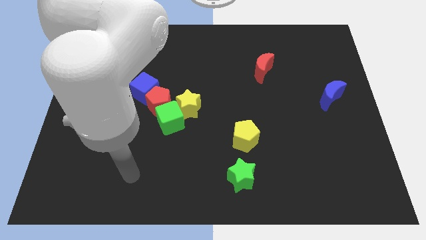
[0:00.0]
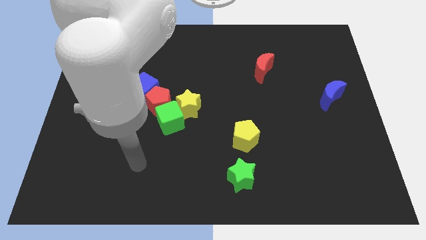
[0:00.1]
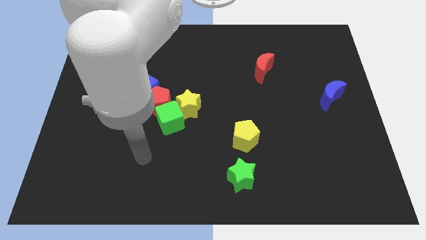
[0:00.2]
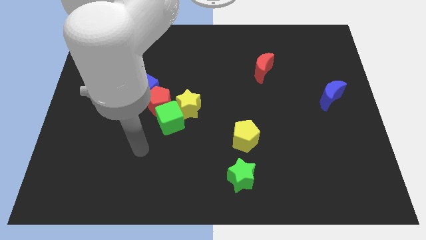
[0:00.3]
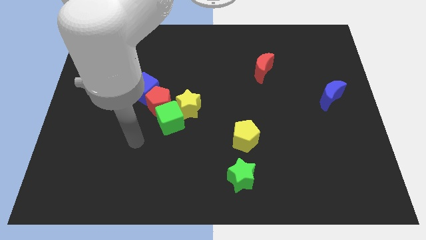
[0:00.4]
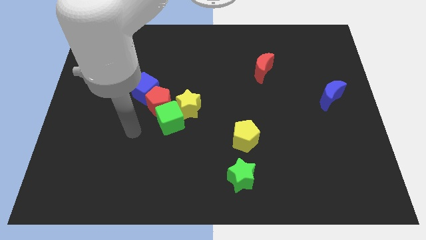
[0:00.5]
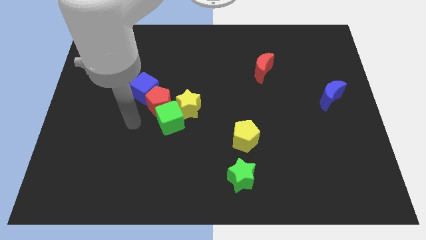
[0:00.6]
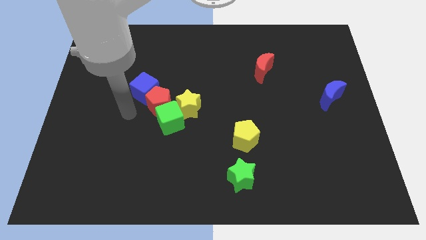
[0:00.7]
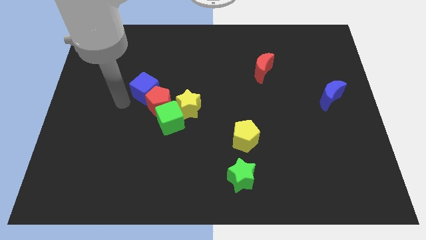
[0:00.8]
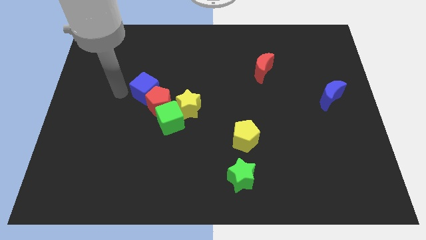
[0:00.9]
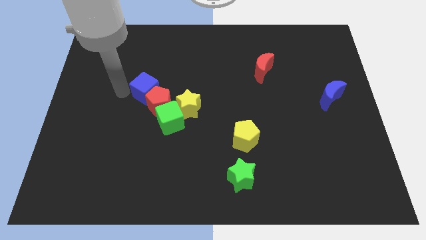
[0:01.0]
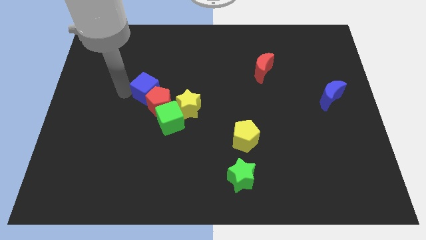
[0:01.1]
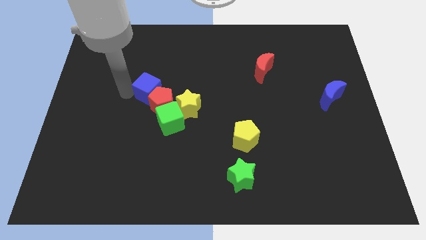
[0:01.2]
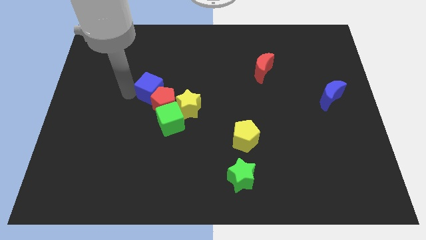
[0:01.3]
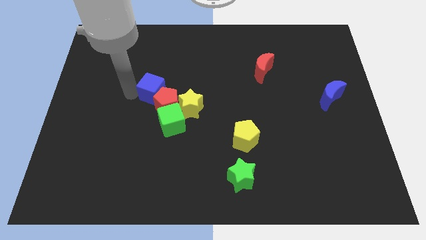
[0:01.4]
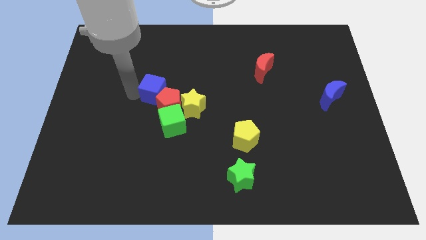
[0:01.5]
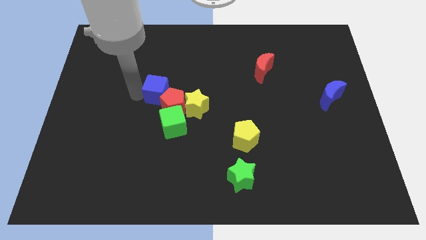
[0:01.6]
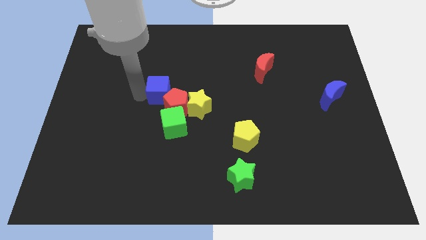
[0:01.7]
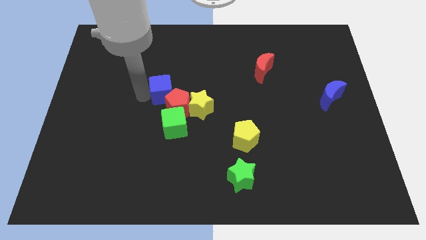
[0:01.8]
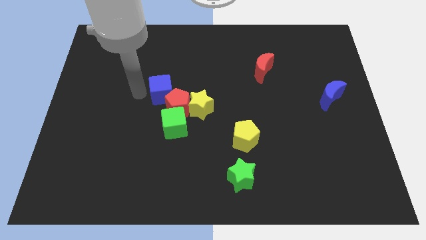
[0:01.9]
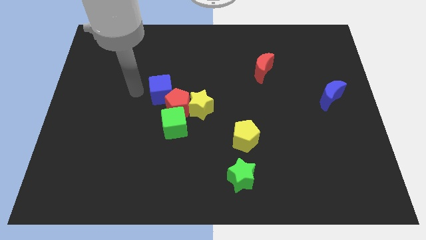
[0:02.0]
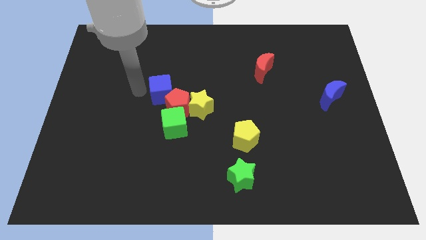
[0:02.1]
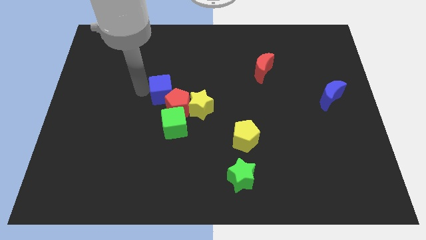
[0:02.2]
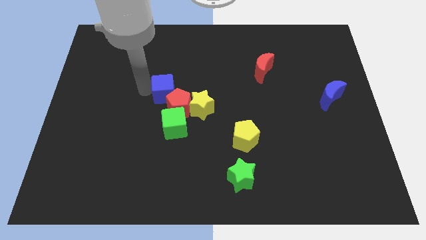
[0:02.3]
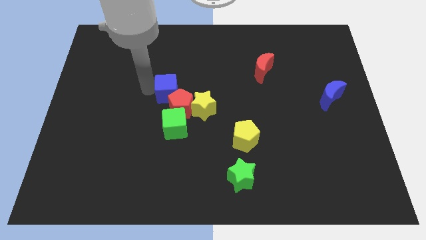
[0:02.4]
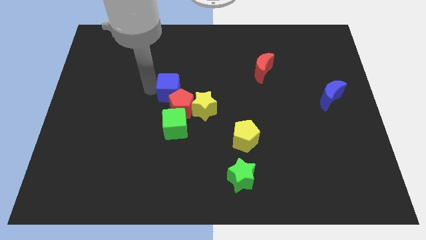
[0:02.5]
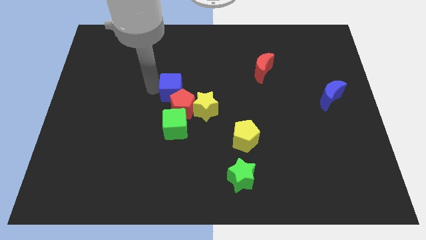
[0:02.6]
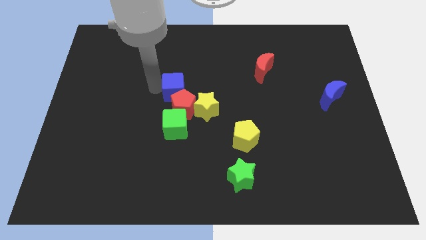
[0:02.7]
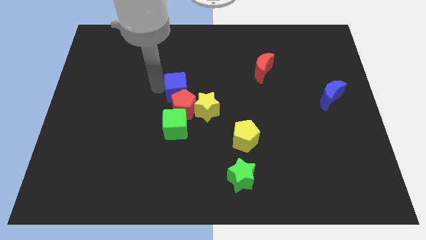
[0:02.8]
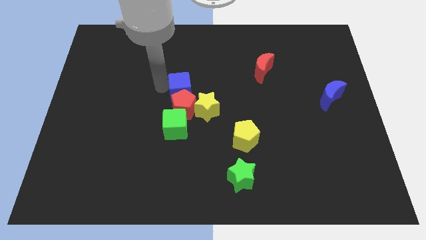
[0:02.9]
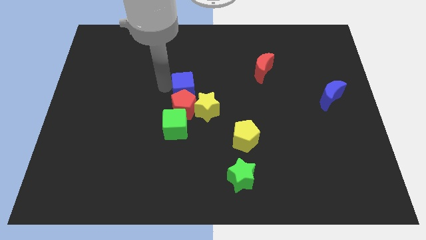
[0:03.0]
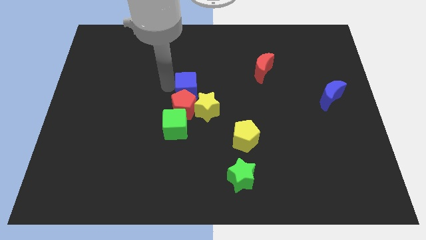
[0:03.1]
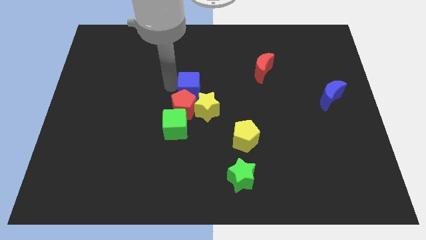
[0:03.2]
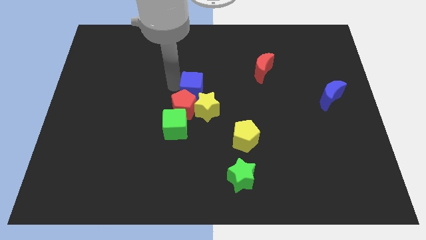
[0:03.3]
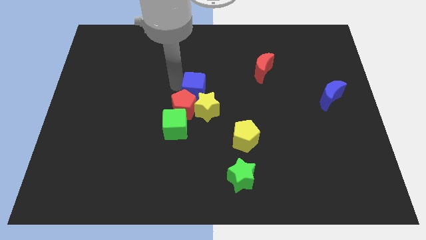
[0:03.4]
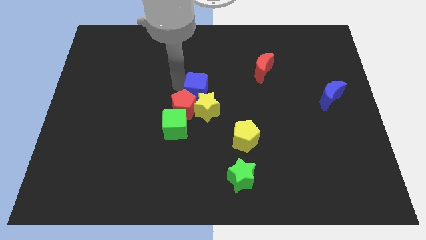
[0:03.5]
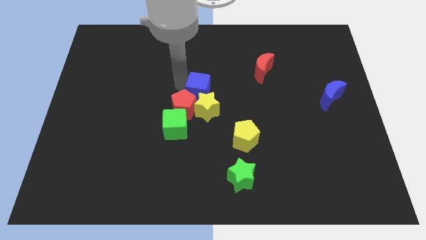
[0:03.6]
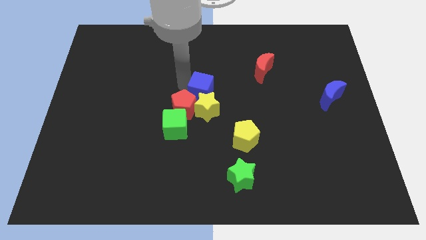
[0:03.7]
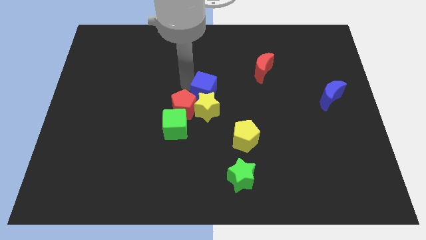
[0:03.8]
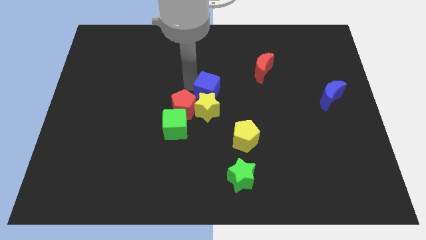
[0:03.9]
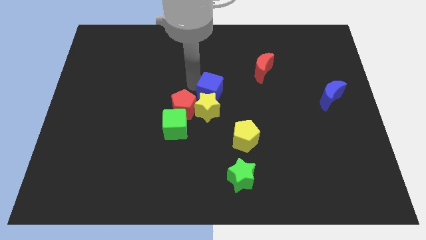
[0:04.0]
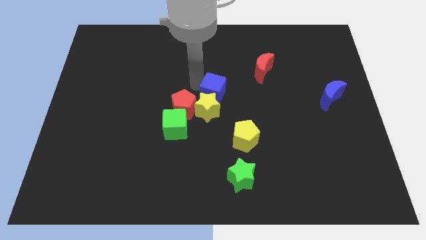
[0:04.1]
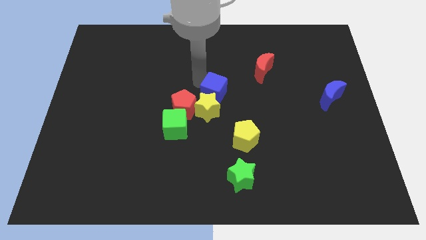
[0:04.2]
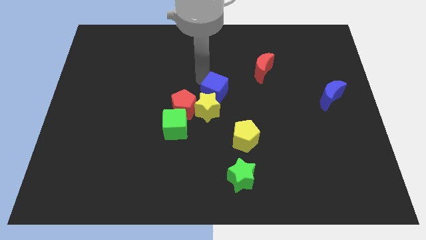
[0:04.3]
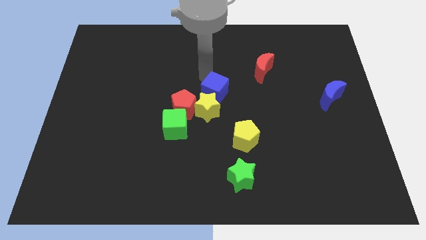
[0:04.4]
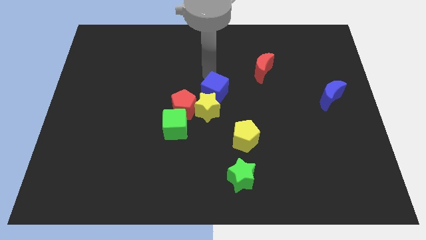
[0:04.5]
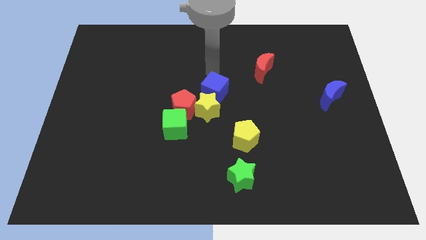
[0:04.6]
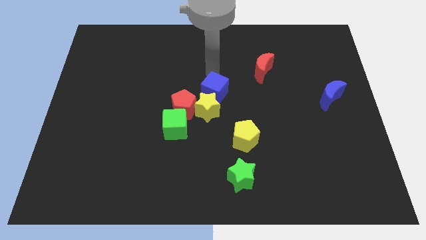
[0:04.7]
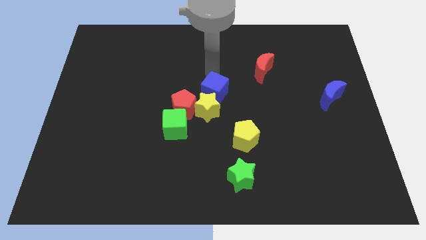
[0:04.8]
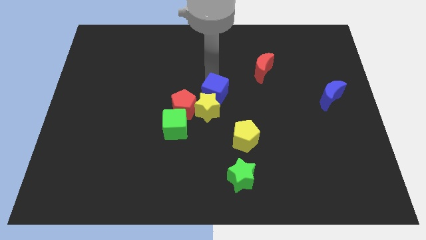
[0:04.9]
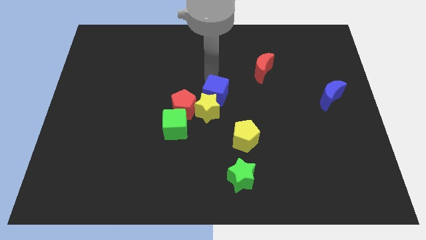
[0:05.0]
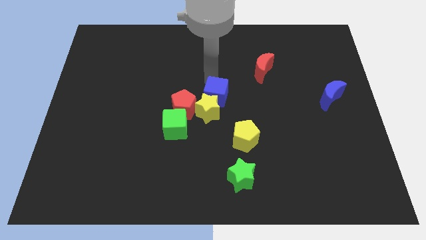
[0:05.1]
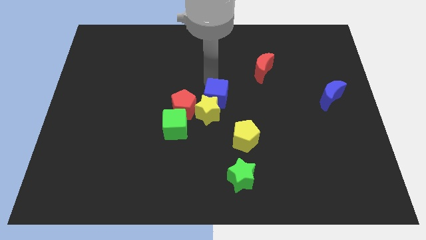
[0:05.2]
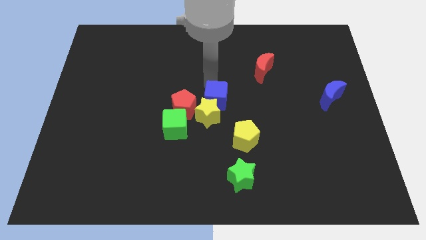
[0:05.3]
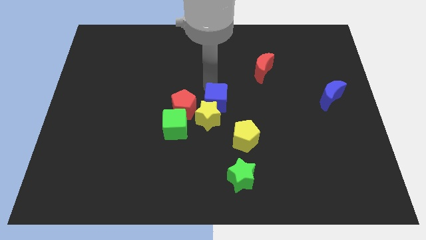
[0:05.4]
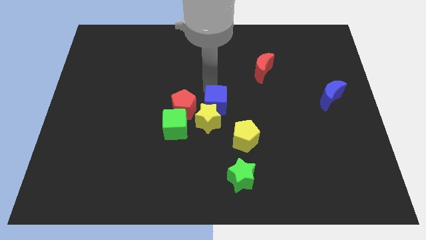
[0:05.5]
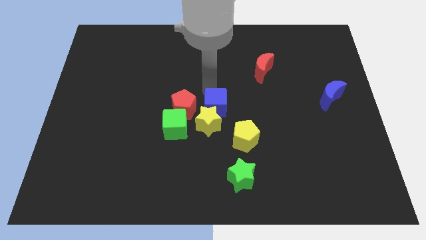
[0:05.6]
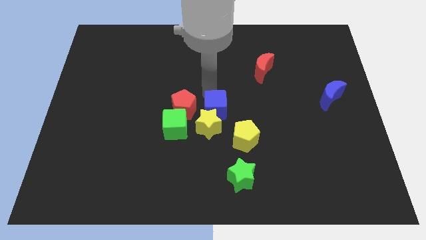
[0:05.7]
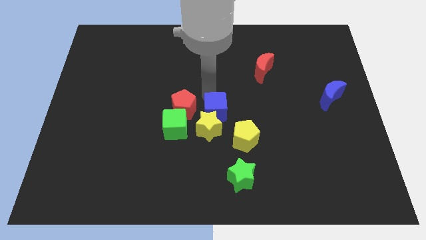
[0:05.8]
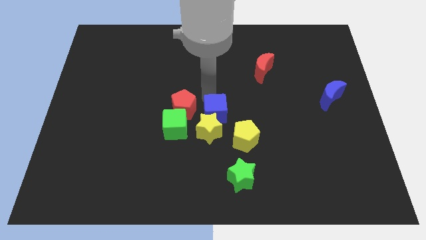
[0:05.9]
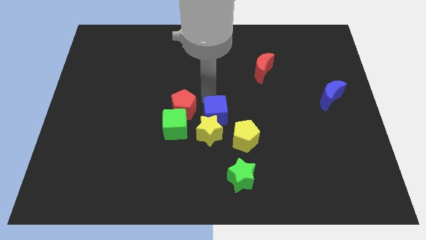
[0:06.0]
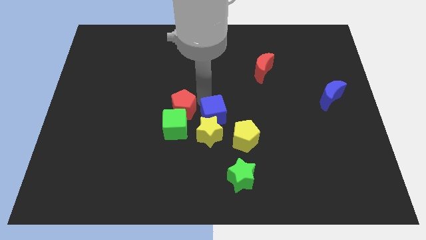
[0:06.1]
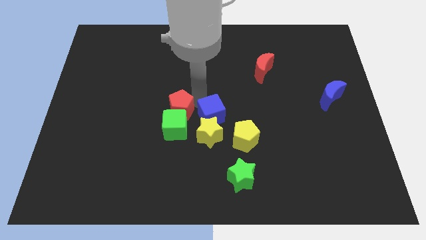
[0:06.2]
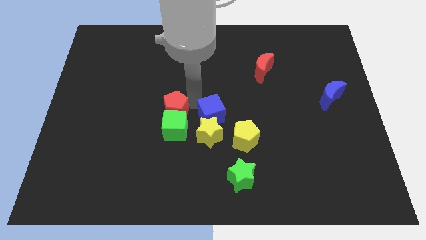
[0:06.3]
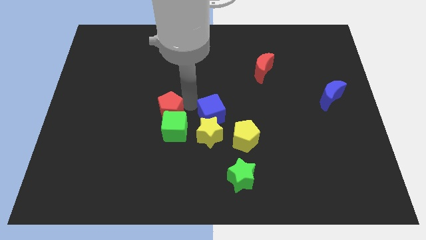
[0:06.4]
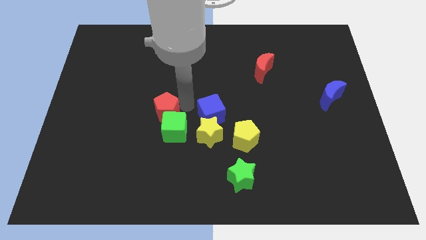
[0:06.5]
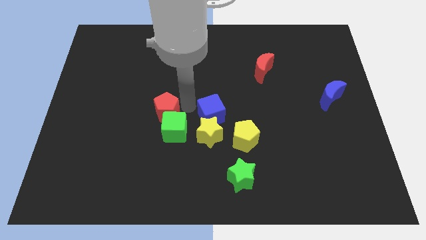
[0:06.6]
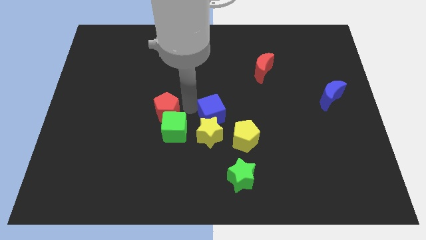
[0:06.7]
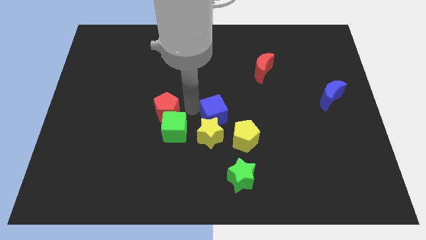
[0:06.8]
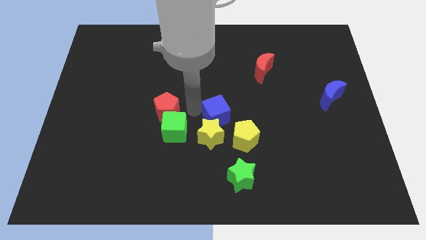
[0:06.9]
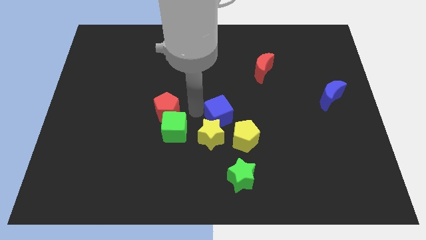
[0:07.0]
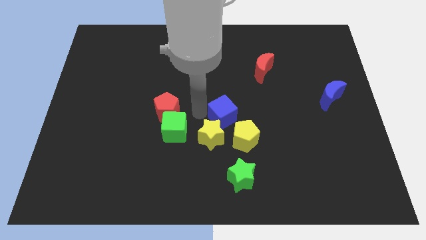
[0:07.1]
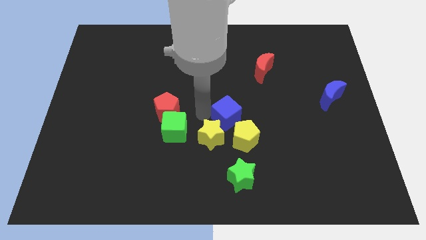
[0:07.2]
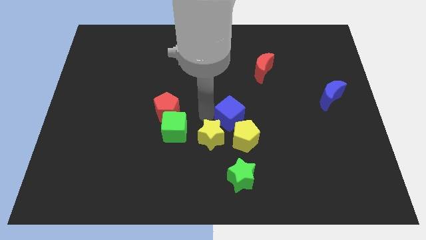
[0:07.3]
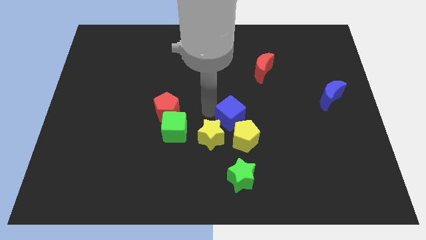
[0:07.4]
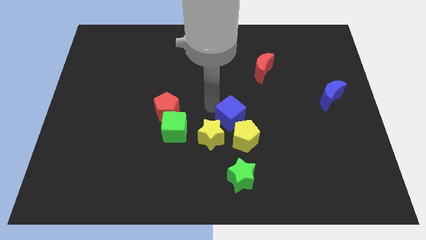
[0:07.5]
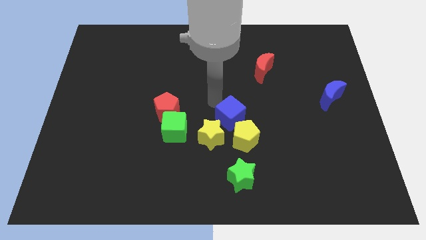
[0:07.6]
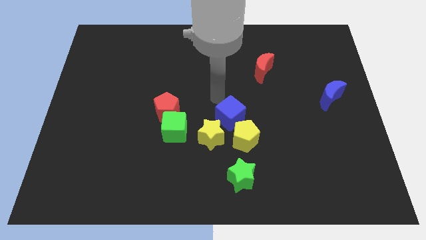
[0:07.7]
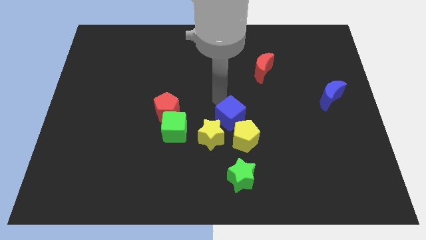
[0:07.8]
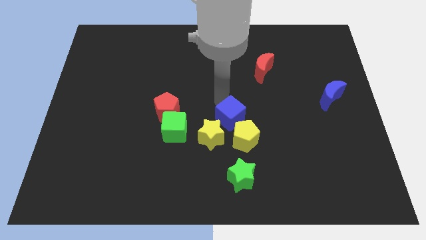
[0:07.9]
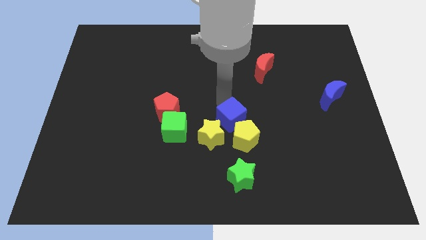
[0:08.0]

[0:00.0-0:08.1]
slide the blue cube close to the yellow pentagon
